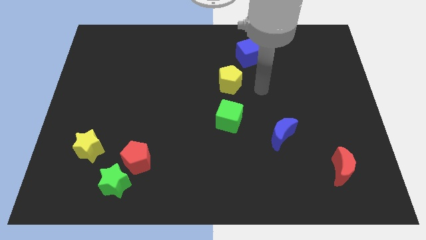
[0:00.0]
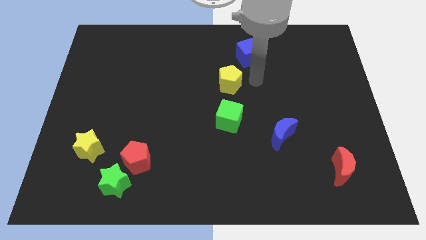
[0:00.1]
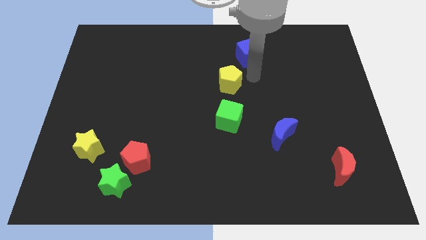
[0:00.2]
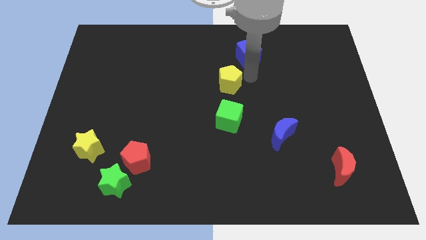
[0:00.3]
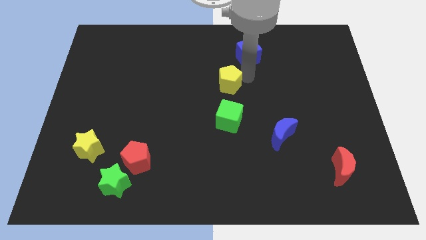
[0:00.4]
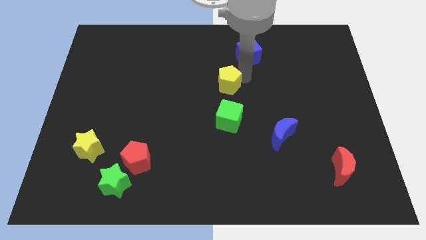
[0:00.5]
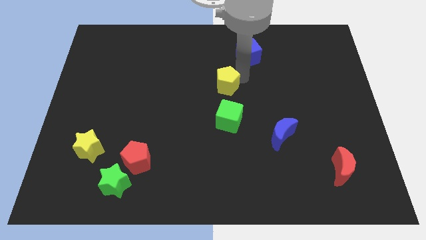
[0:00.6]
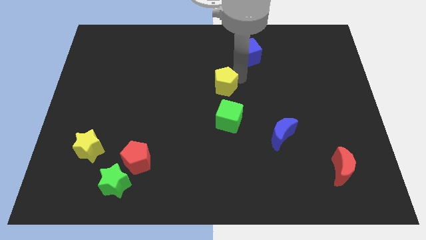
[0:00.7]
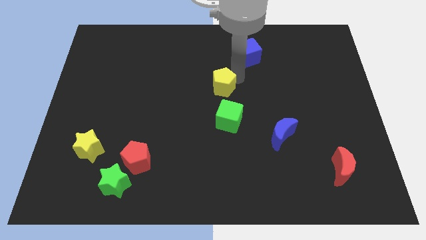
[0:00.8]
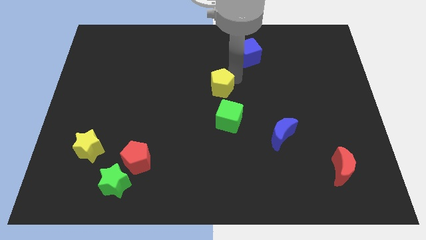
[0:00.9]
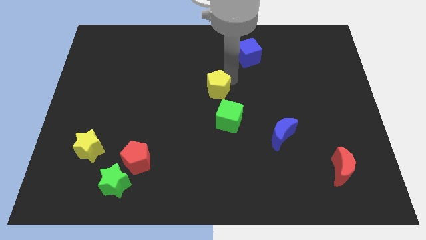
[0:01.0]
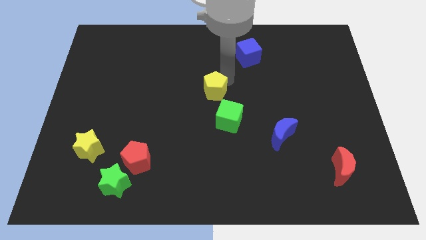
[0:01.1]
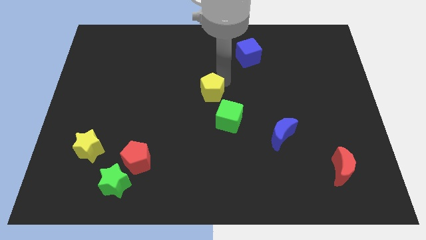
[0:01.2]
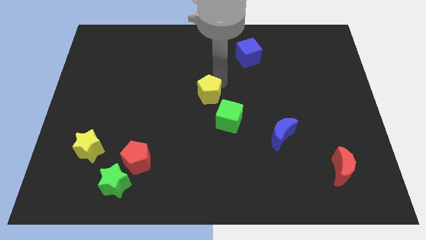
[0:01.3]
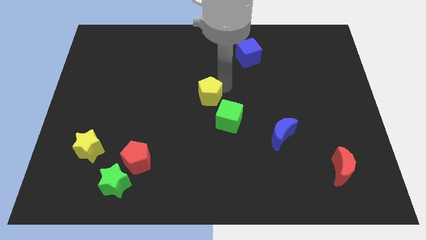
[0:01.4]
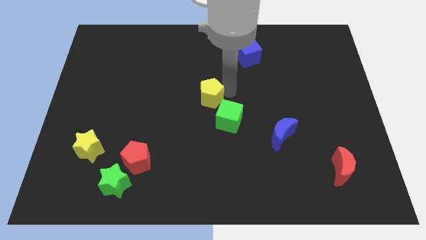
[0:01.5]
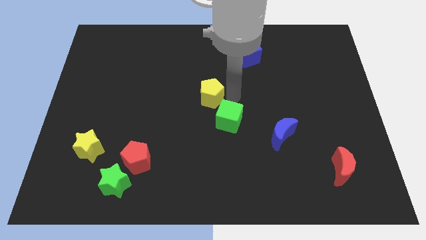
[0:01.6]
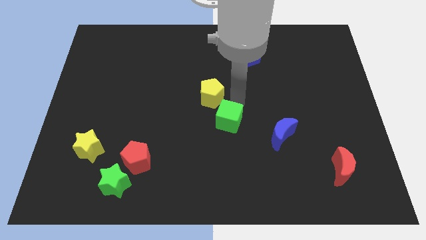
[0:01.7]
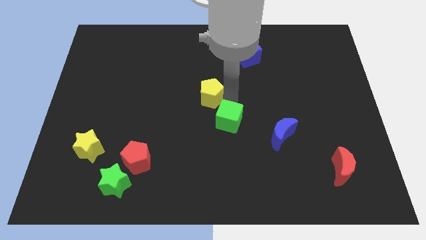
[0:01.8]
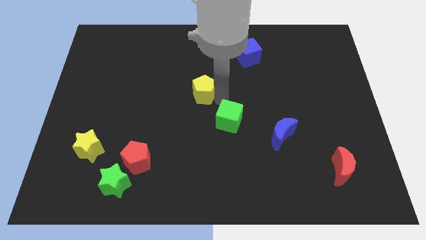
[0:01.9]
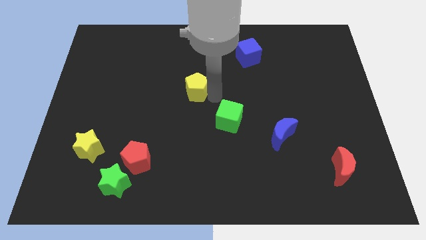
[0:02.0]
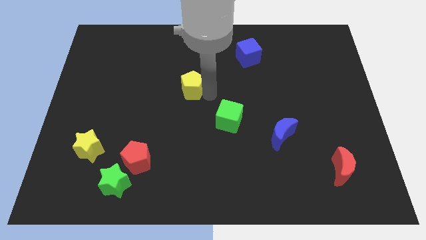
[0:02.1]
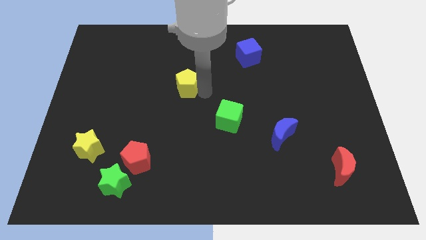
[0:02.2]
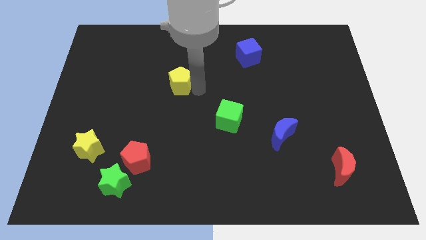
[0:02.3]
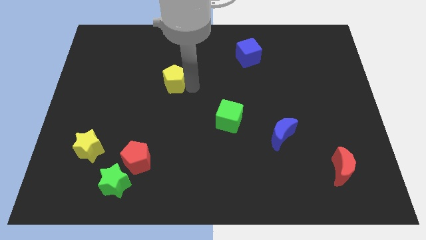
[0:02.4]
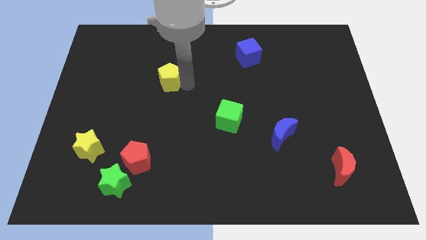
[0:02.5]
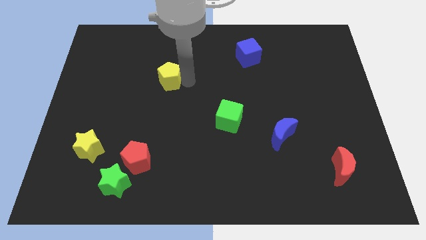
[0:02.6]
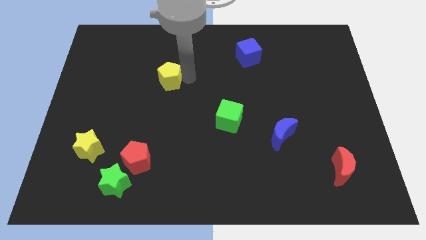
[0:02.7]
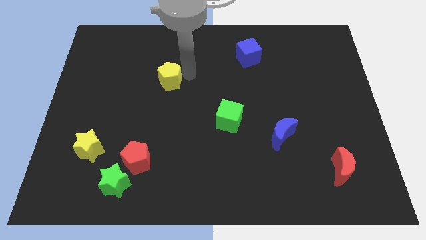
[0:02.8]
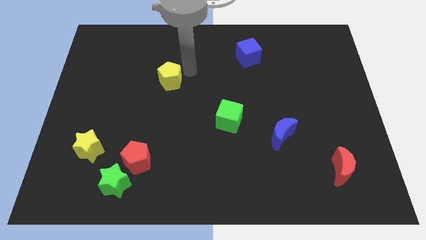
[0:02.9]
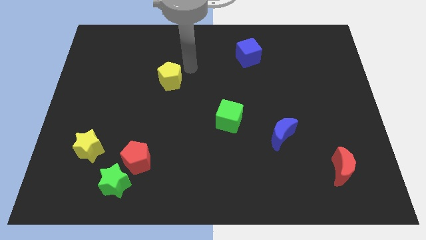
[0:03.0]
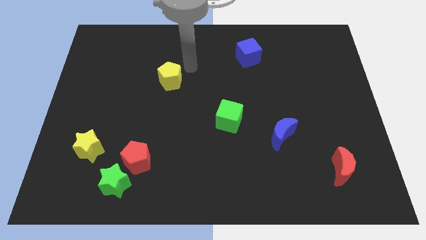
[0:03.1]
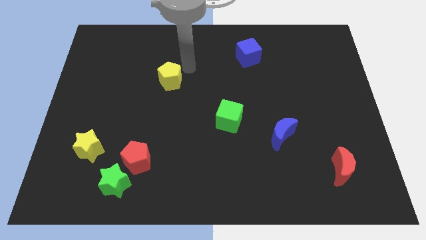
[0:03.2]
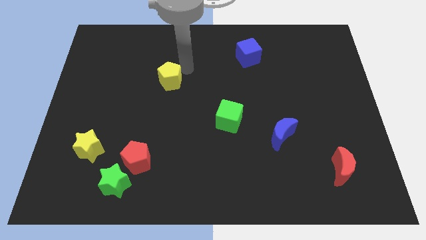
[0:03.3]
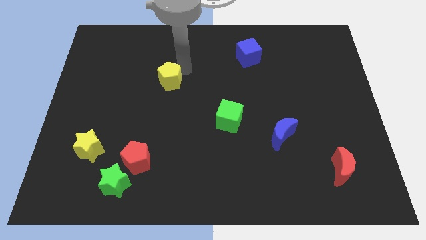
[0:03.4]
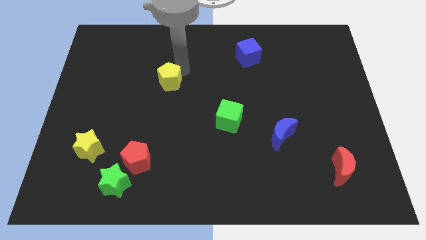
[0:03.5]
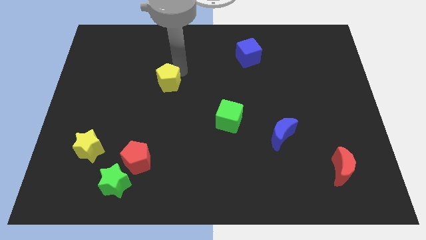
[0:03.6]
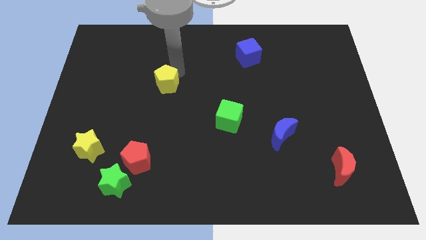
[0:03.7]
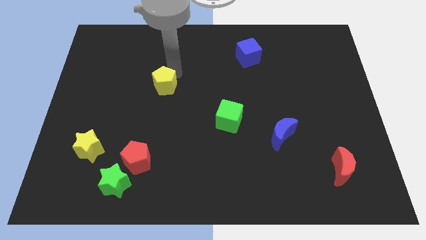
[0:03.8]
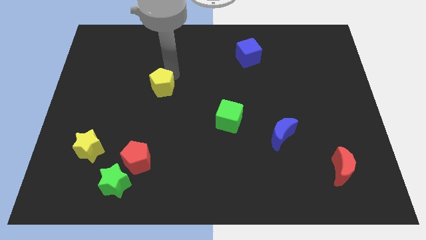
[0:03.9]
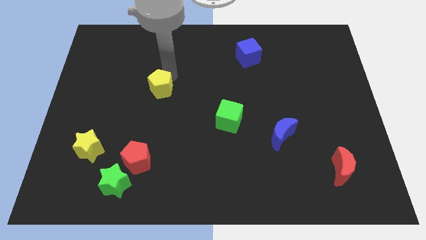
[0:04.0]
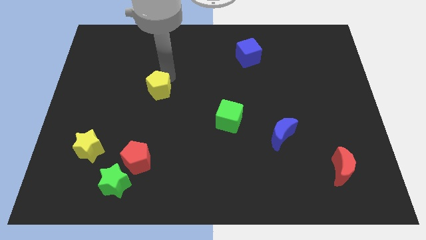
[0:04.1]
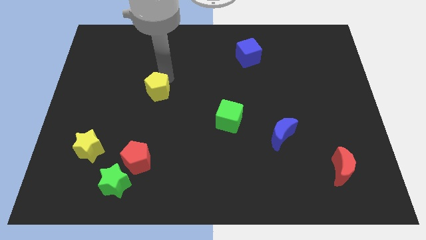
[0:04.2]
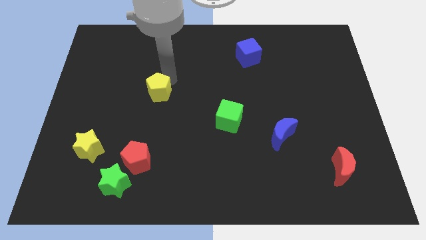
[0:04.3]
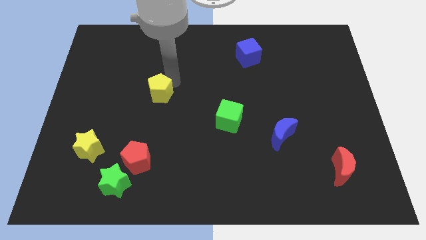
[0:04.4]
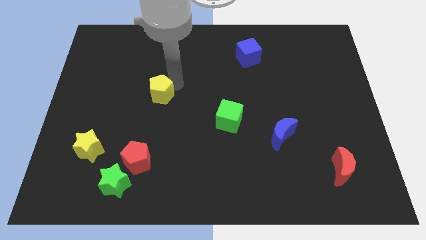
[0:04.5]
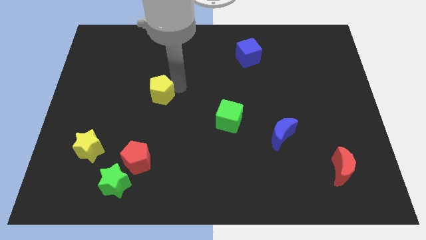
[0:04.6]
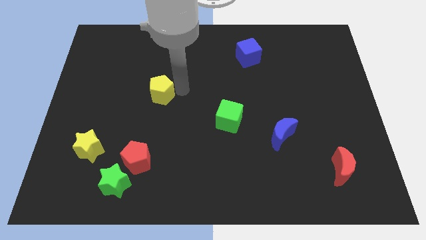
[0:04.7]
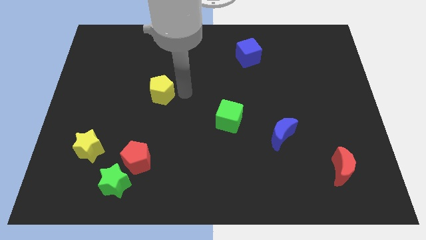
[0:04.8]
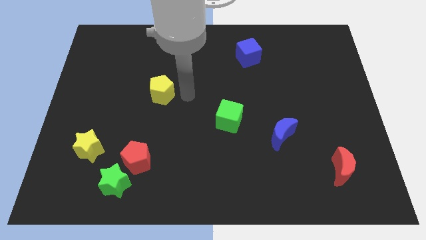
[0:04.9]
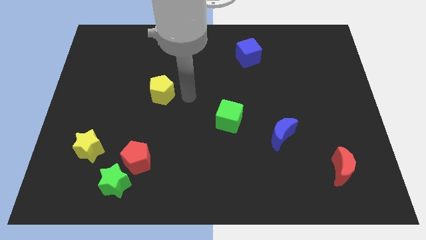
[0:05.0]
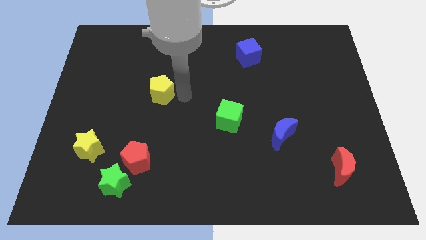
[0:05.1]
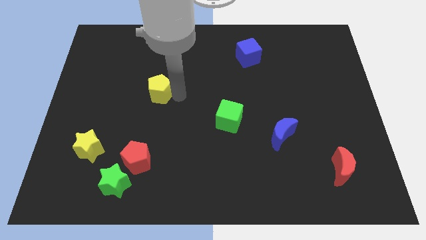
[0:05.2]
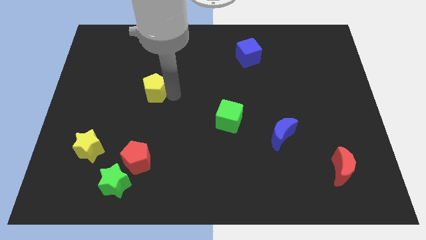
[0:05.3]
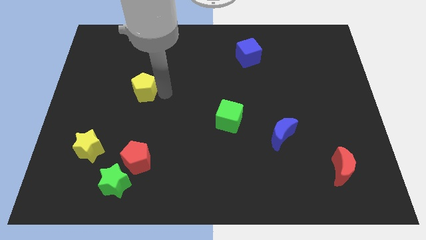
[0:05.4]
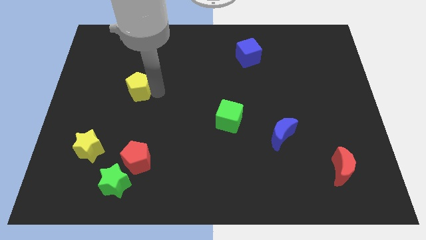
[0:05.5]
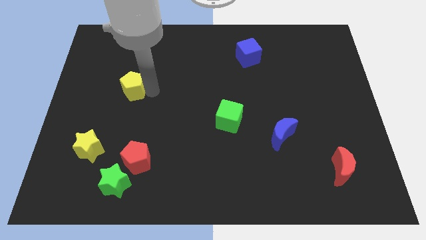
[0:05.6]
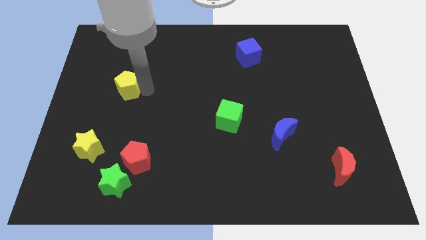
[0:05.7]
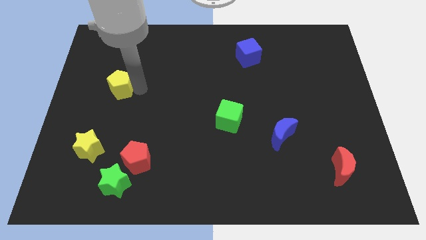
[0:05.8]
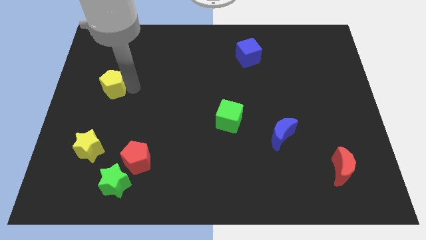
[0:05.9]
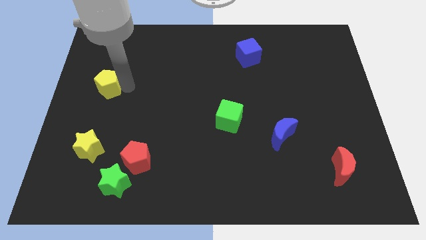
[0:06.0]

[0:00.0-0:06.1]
put the yellow pentagon to the left side of the board

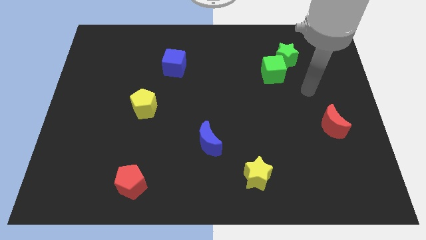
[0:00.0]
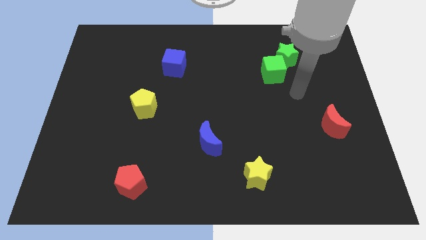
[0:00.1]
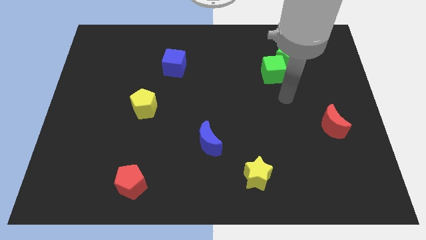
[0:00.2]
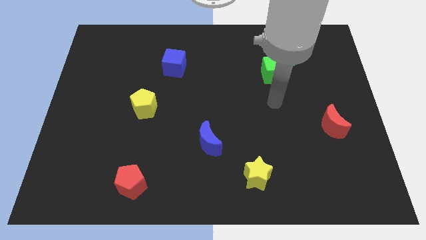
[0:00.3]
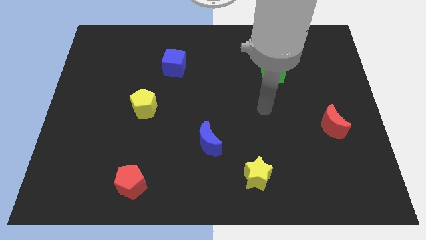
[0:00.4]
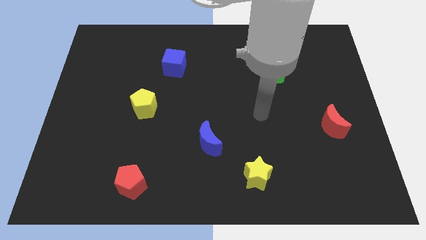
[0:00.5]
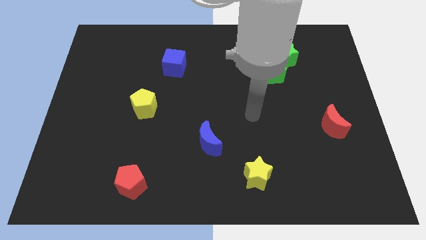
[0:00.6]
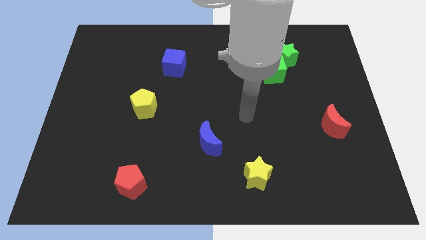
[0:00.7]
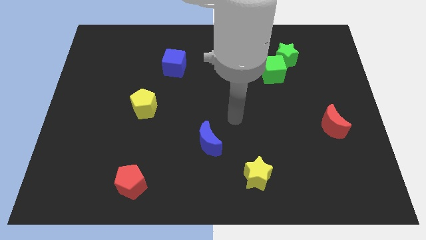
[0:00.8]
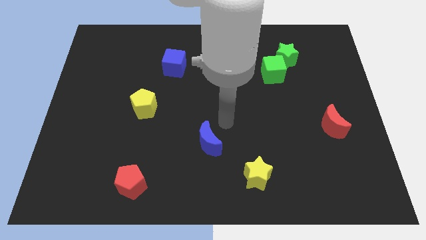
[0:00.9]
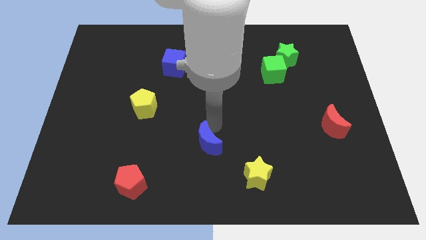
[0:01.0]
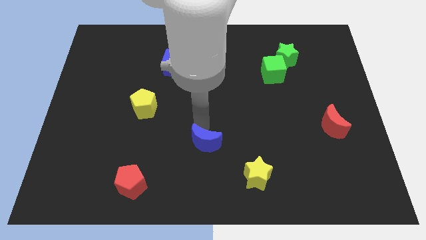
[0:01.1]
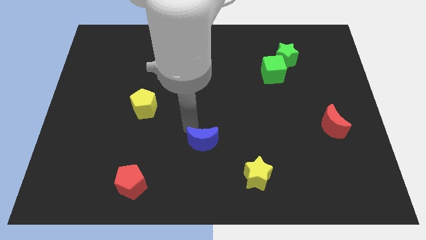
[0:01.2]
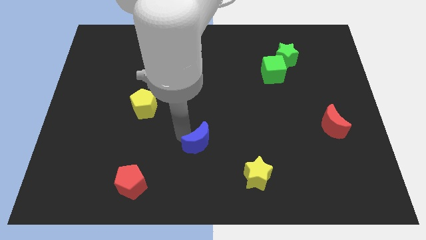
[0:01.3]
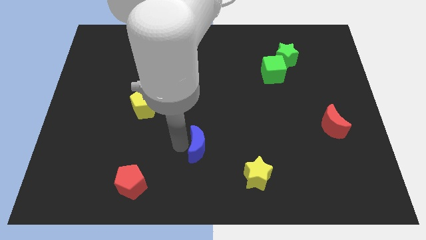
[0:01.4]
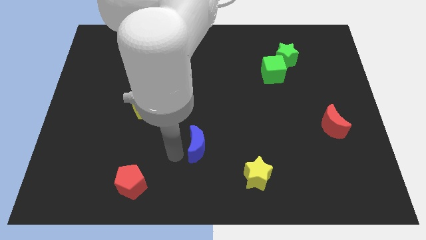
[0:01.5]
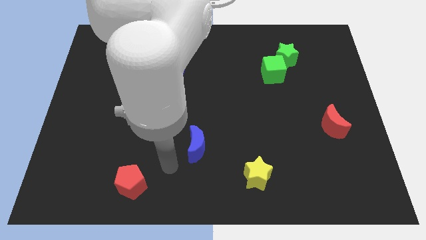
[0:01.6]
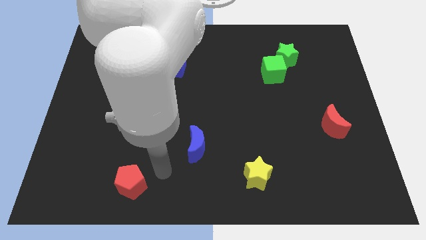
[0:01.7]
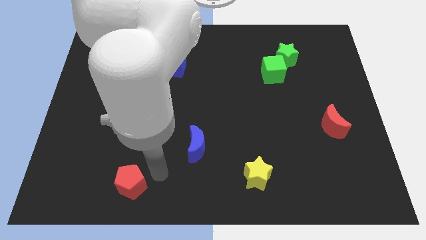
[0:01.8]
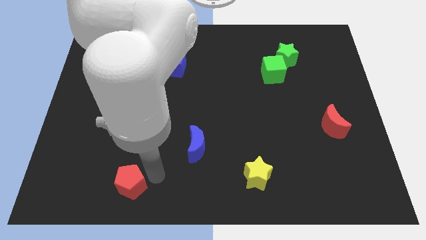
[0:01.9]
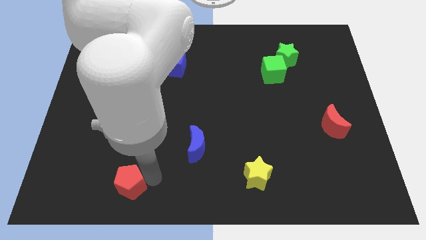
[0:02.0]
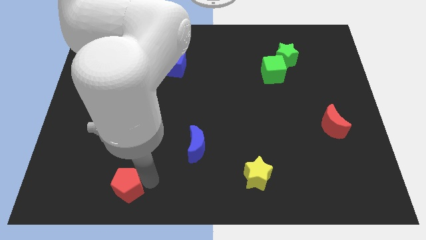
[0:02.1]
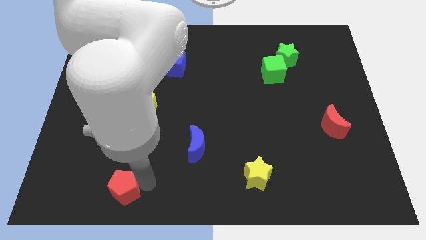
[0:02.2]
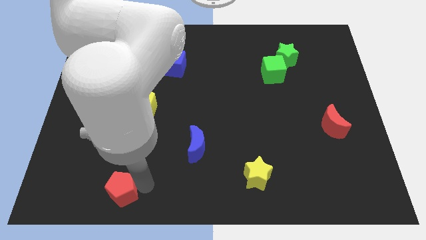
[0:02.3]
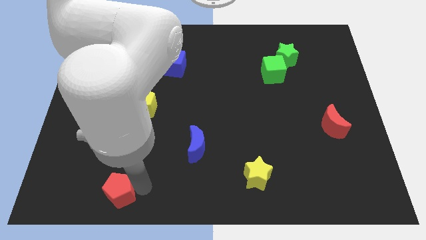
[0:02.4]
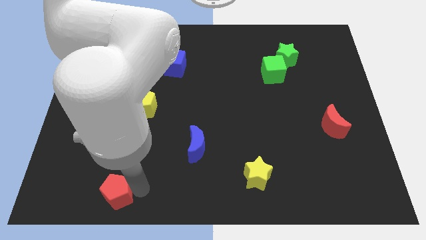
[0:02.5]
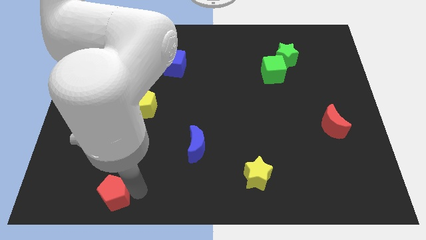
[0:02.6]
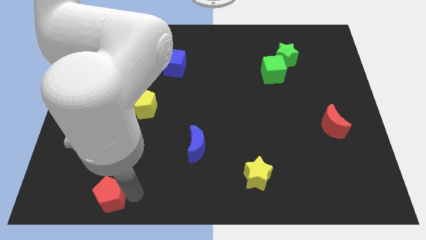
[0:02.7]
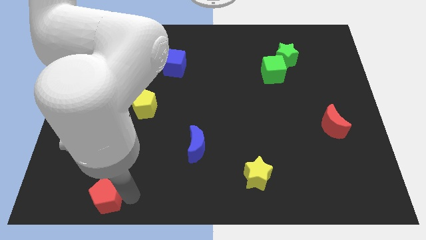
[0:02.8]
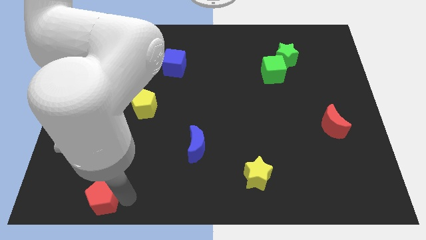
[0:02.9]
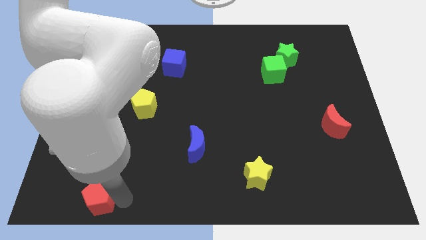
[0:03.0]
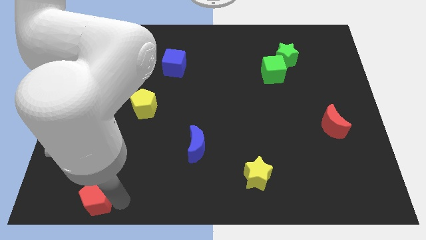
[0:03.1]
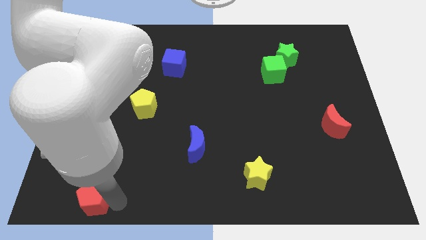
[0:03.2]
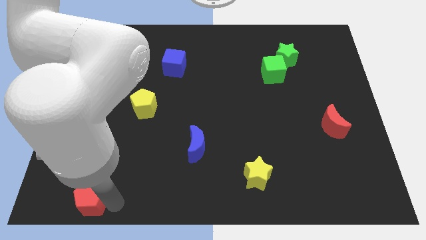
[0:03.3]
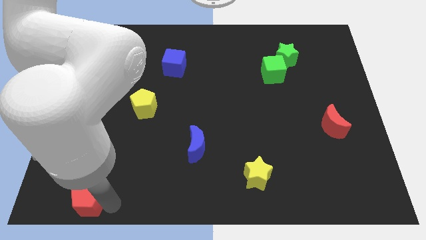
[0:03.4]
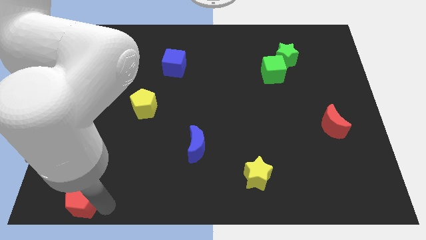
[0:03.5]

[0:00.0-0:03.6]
move the red pentagon to the bottom left of the board
